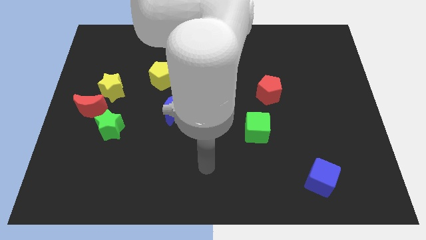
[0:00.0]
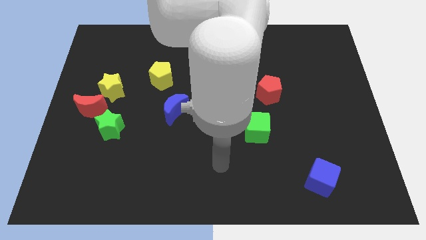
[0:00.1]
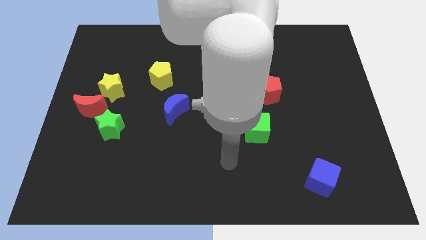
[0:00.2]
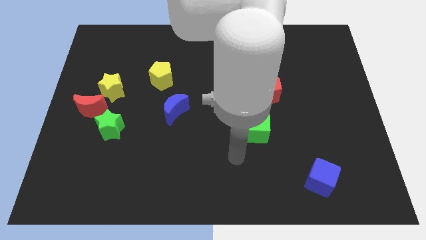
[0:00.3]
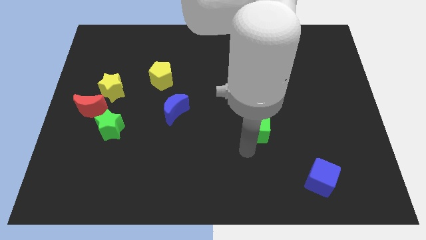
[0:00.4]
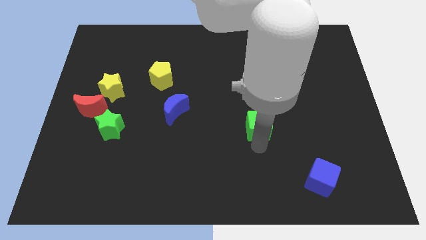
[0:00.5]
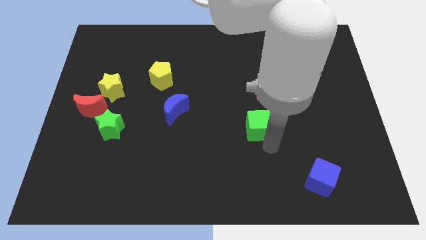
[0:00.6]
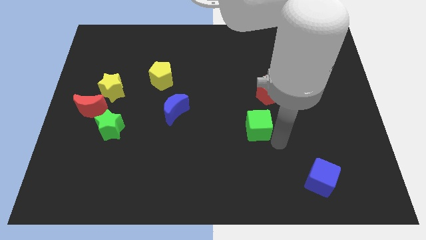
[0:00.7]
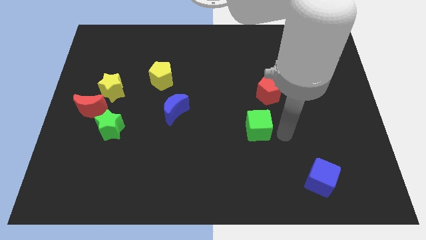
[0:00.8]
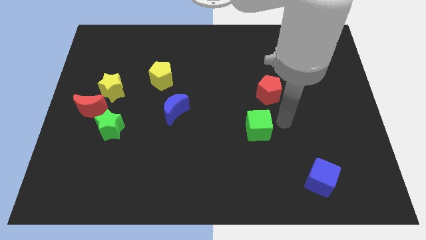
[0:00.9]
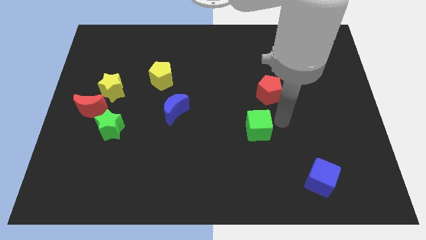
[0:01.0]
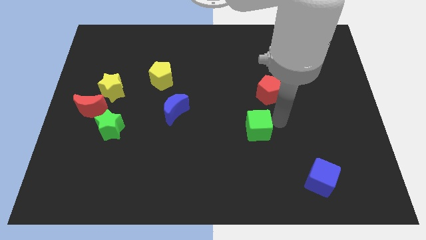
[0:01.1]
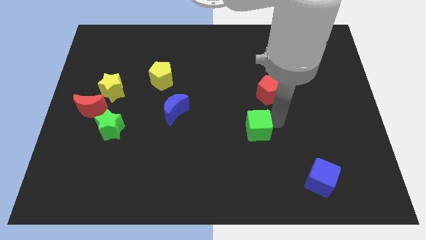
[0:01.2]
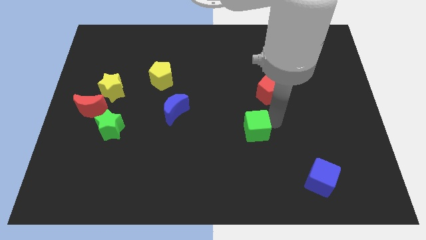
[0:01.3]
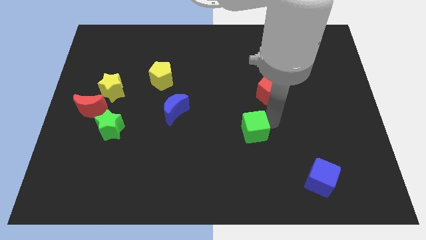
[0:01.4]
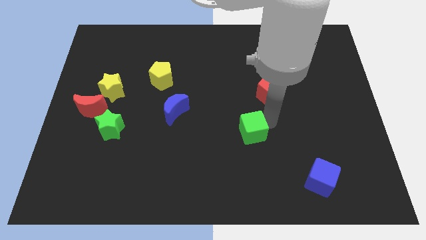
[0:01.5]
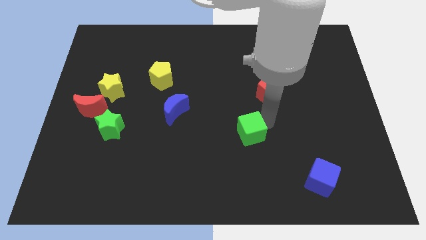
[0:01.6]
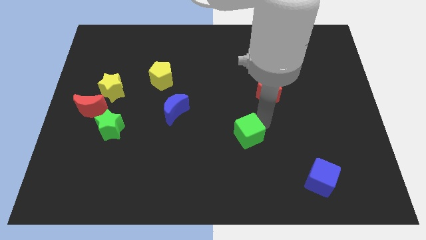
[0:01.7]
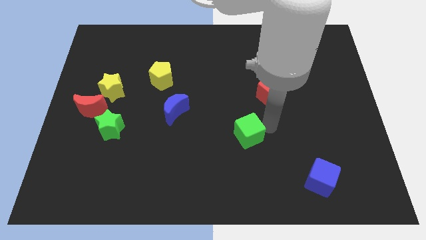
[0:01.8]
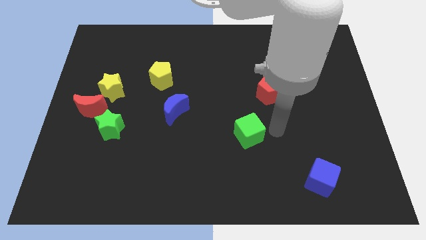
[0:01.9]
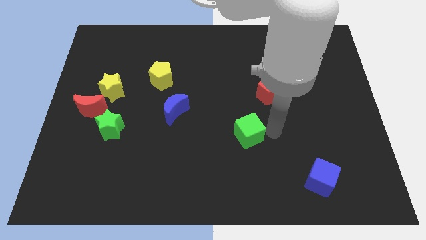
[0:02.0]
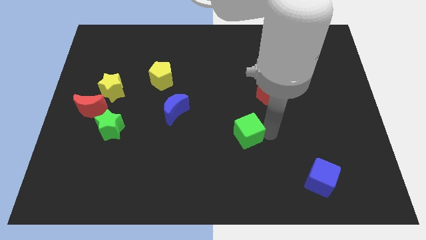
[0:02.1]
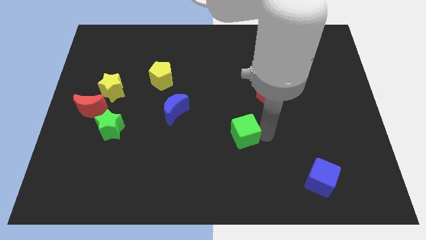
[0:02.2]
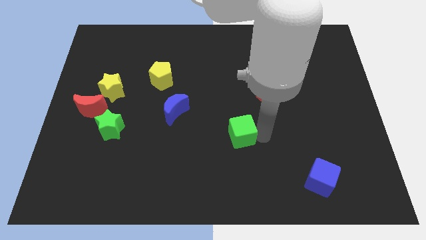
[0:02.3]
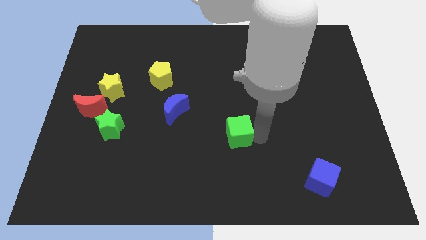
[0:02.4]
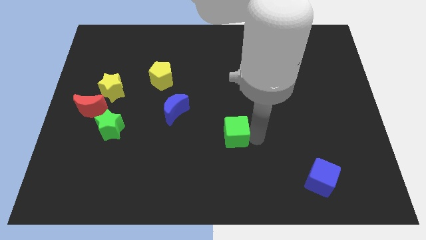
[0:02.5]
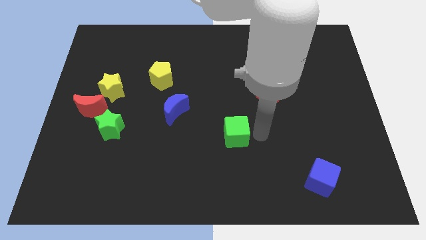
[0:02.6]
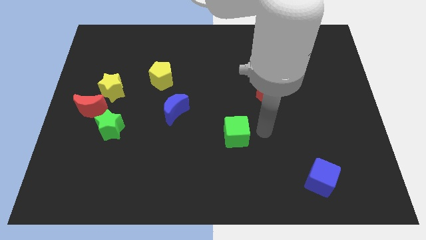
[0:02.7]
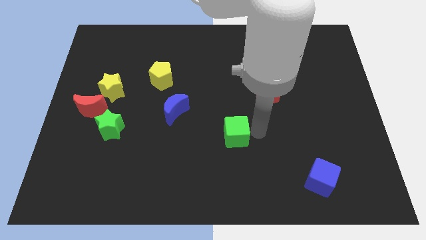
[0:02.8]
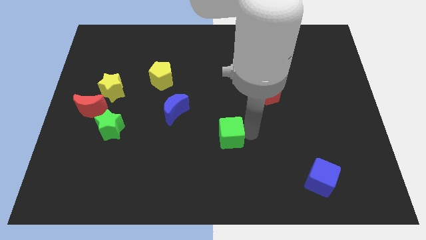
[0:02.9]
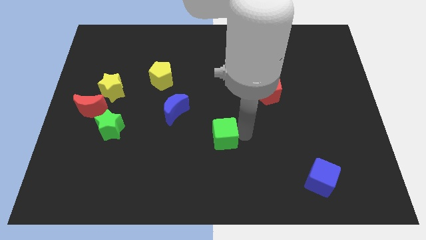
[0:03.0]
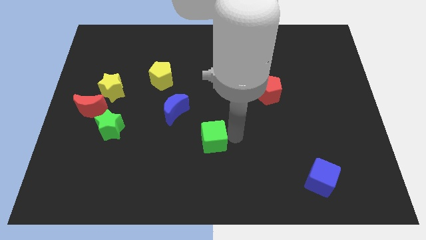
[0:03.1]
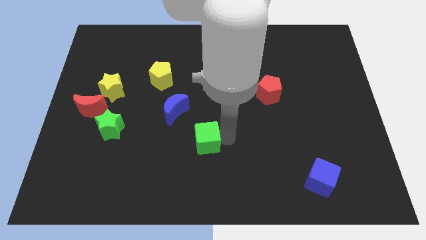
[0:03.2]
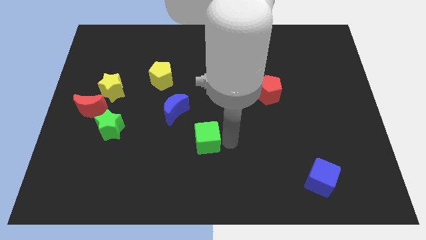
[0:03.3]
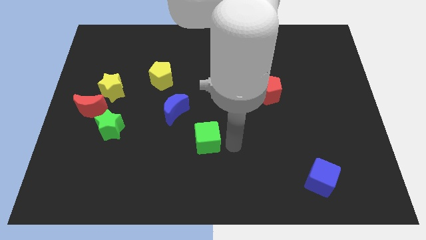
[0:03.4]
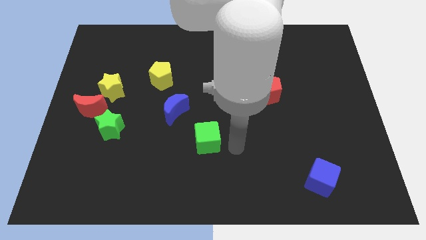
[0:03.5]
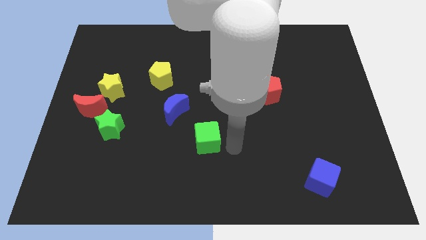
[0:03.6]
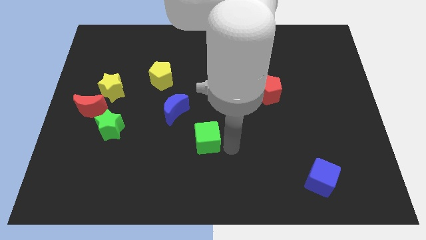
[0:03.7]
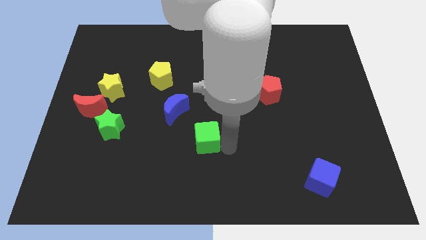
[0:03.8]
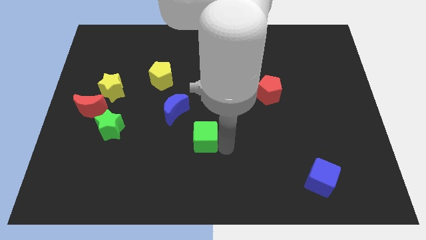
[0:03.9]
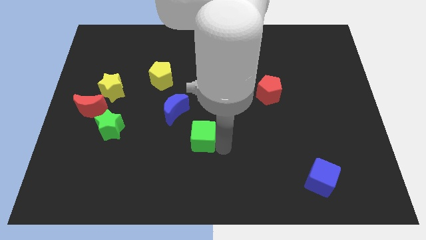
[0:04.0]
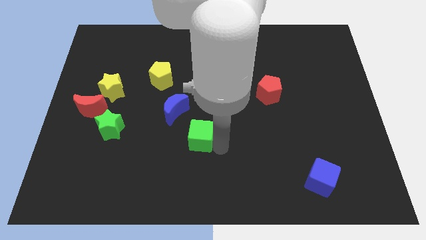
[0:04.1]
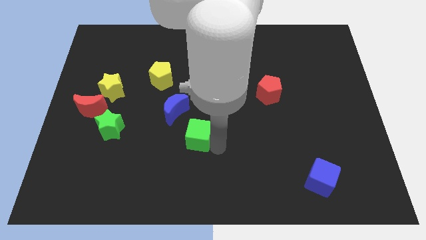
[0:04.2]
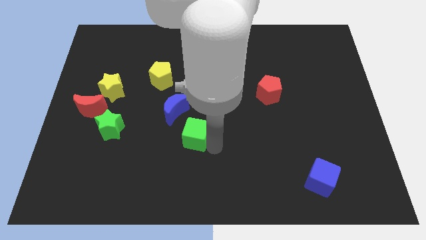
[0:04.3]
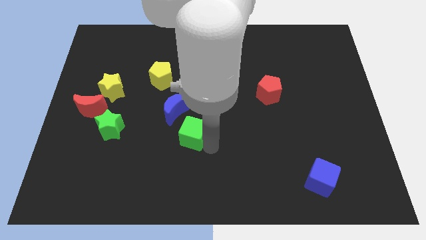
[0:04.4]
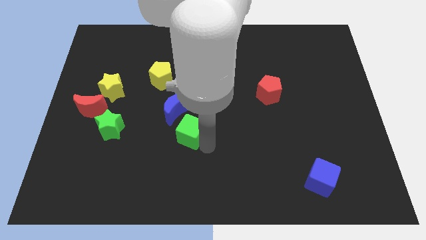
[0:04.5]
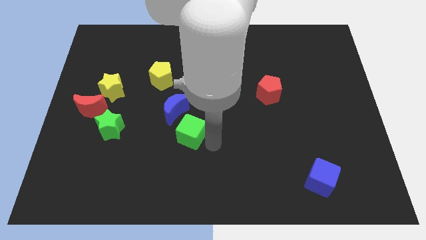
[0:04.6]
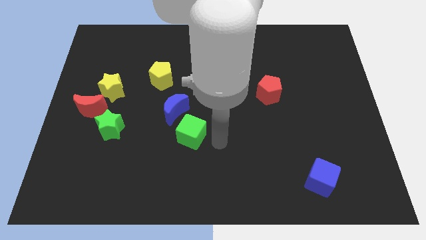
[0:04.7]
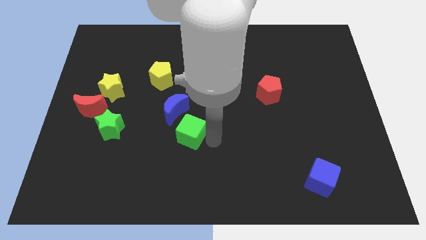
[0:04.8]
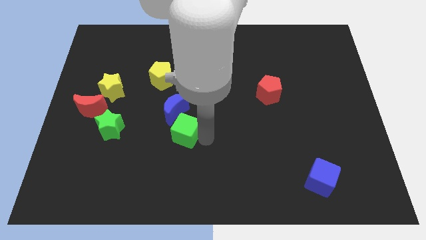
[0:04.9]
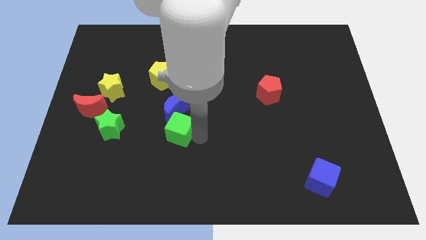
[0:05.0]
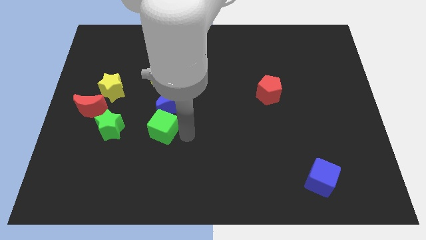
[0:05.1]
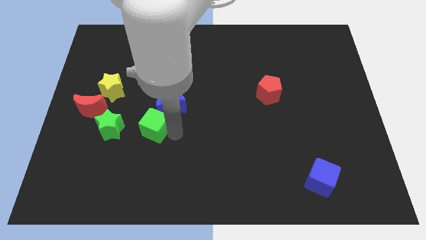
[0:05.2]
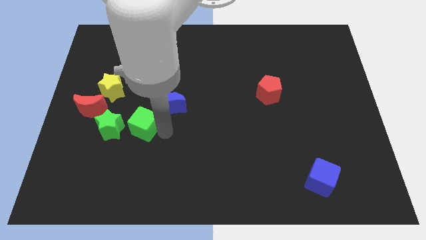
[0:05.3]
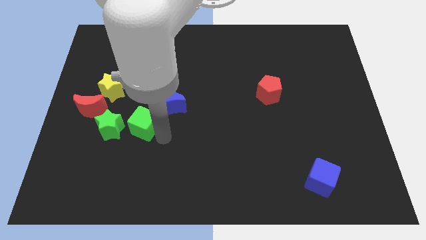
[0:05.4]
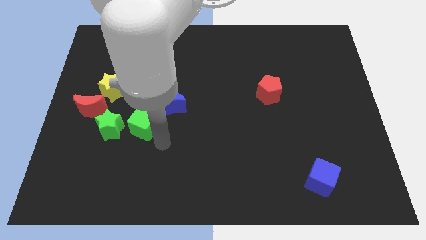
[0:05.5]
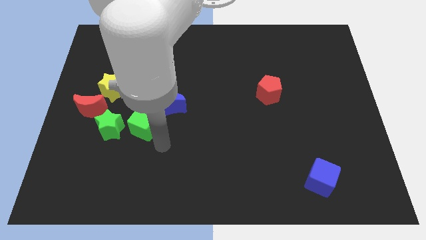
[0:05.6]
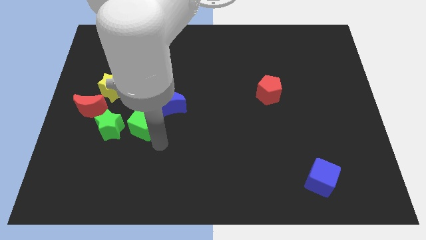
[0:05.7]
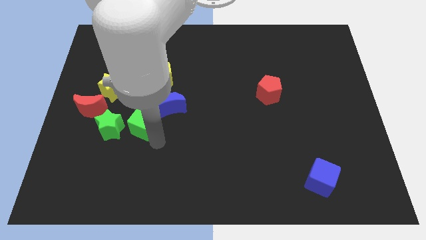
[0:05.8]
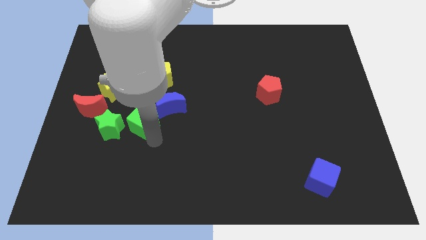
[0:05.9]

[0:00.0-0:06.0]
push the green cube to the left side of the blue moon

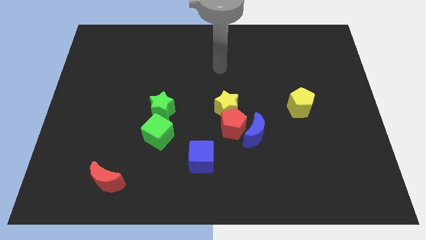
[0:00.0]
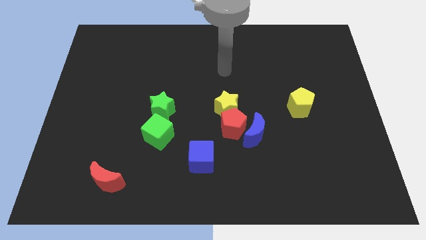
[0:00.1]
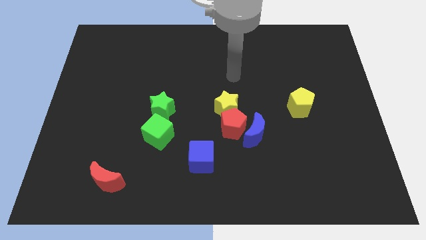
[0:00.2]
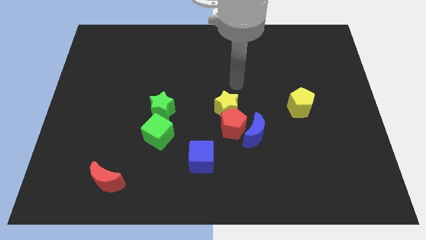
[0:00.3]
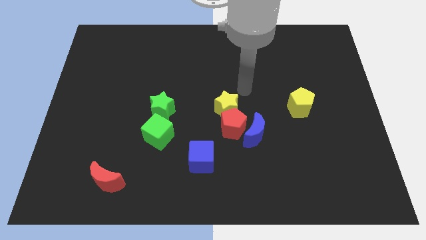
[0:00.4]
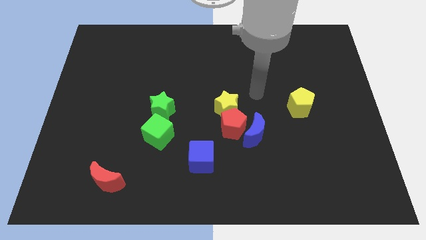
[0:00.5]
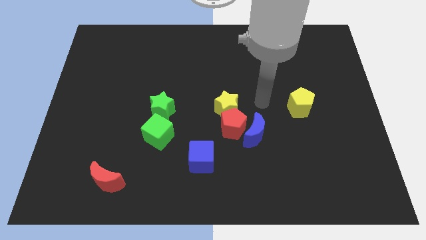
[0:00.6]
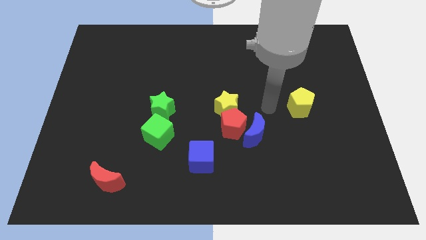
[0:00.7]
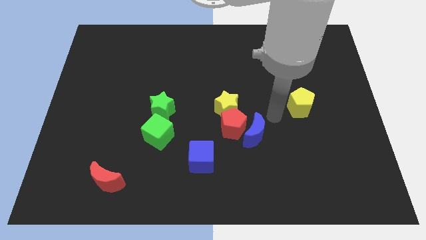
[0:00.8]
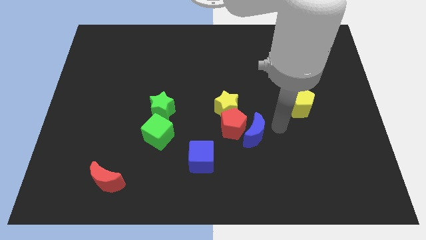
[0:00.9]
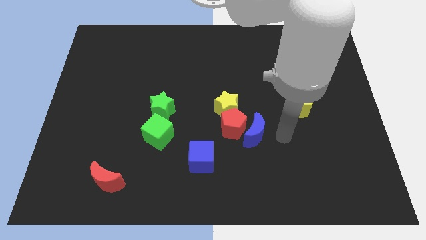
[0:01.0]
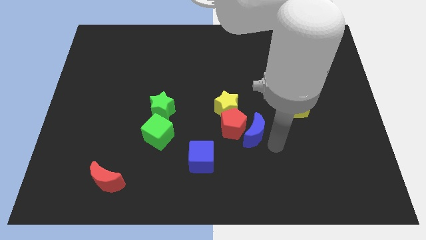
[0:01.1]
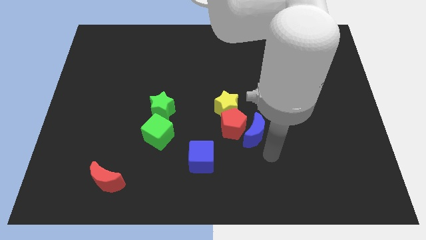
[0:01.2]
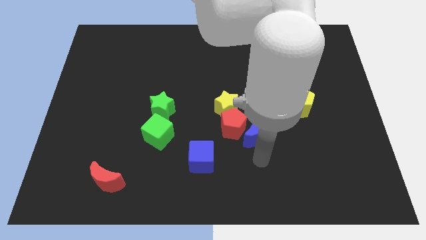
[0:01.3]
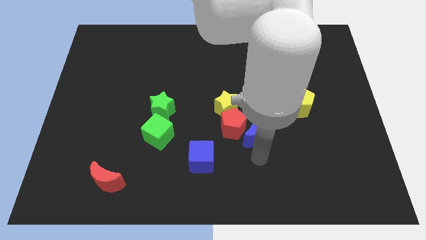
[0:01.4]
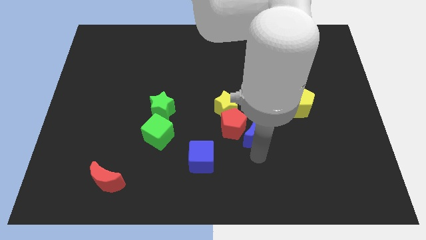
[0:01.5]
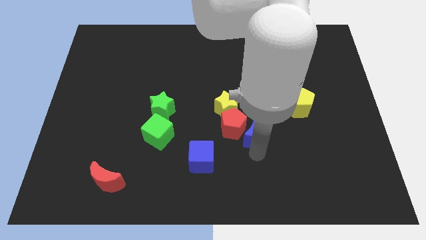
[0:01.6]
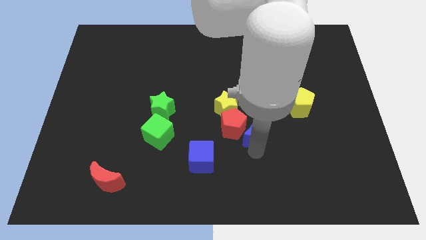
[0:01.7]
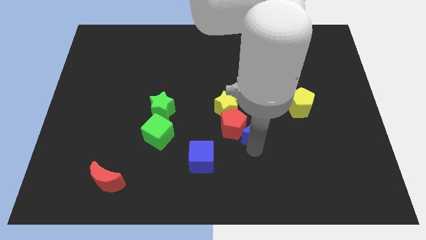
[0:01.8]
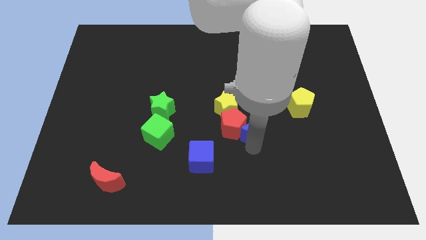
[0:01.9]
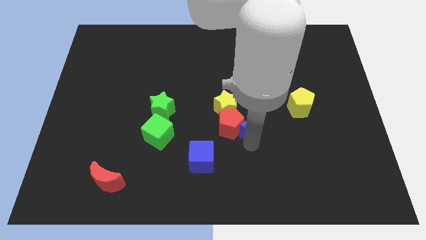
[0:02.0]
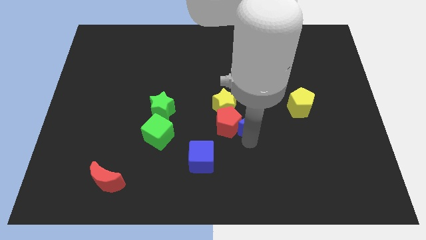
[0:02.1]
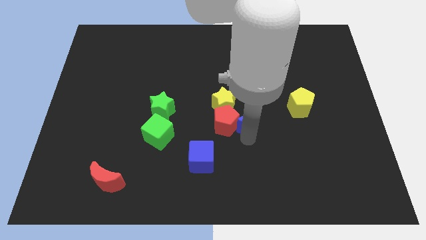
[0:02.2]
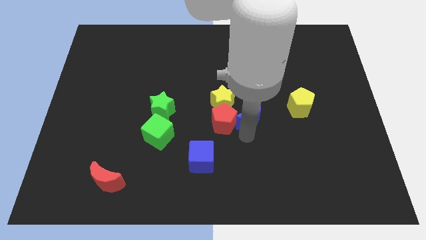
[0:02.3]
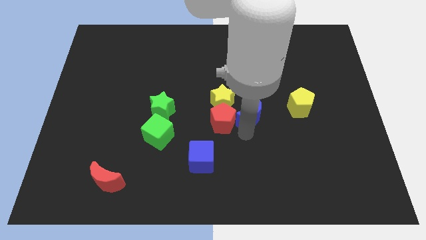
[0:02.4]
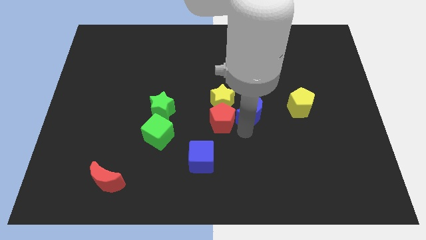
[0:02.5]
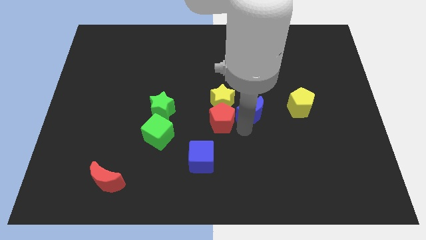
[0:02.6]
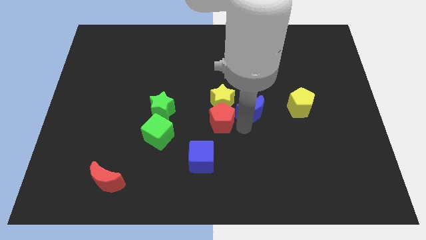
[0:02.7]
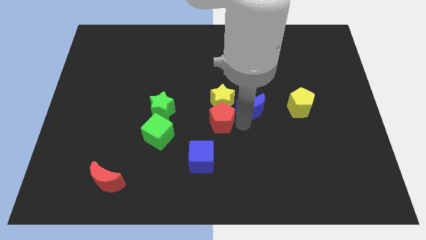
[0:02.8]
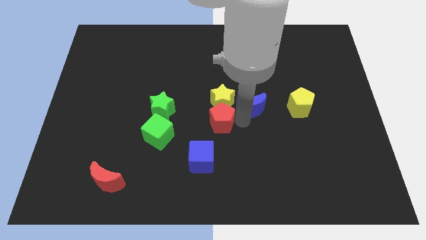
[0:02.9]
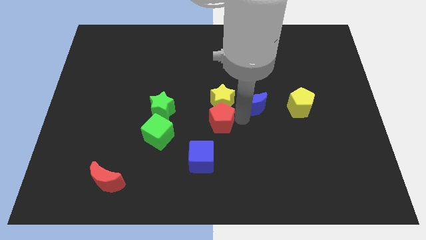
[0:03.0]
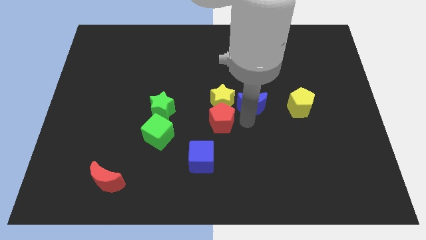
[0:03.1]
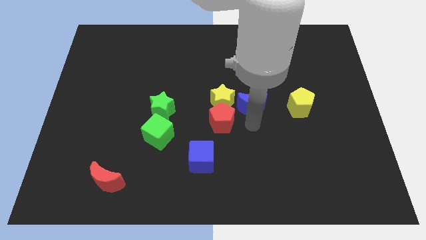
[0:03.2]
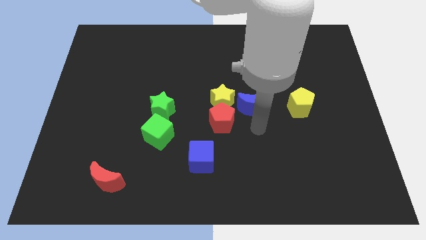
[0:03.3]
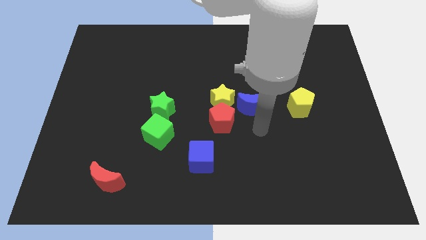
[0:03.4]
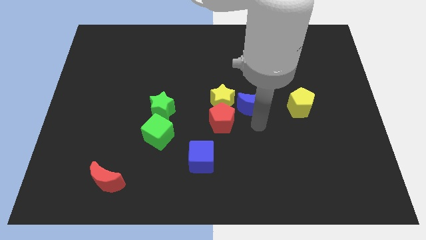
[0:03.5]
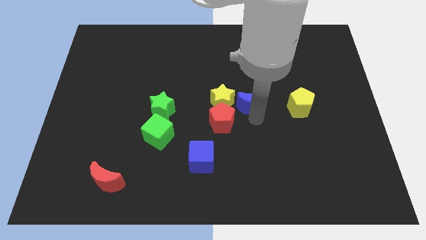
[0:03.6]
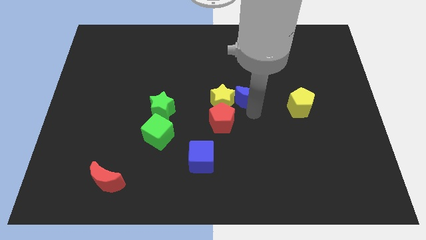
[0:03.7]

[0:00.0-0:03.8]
move the blue moon to the top right side of the yellow star
